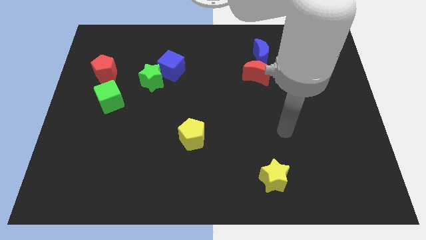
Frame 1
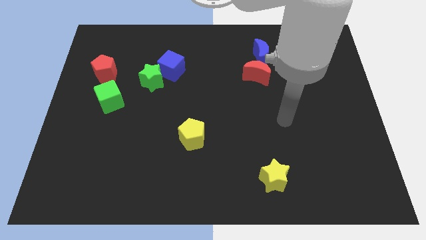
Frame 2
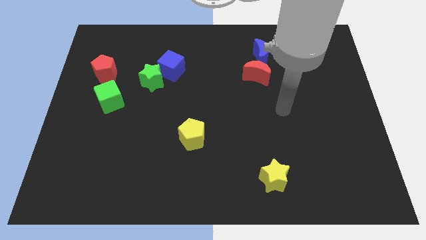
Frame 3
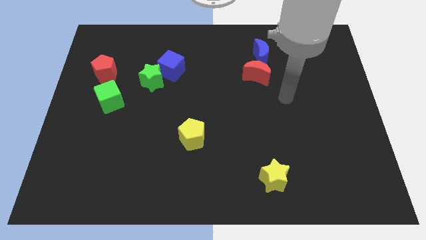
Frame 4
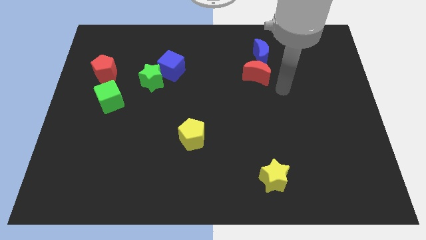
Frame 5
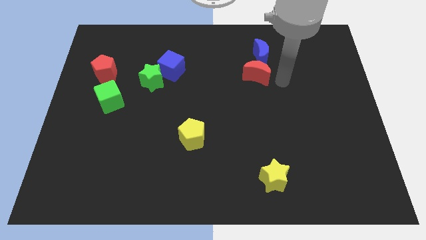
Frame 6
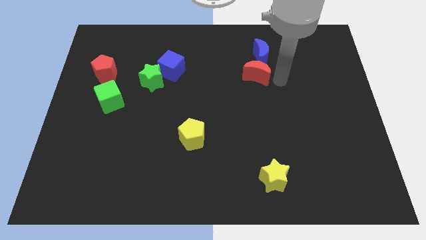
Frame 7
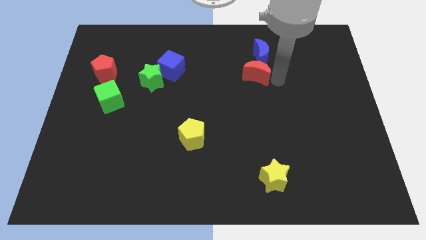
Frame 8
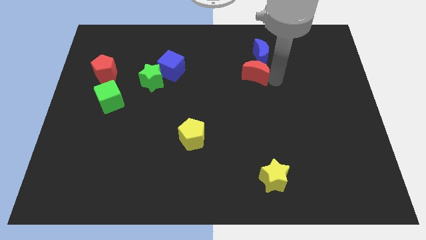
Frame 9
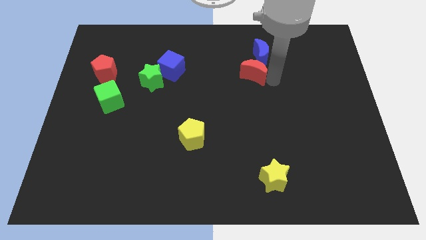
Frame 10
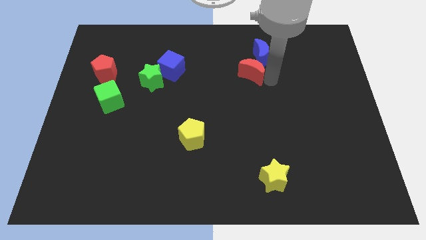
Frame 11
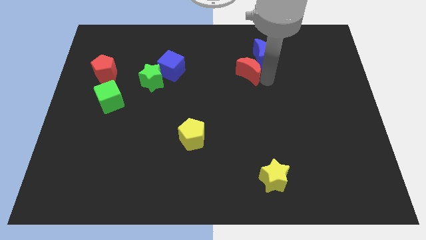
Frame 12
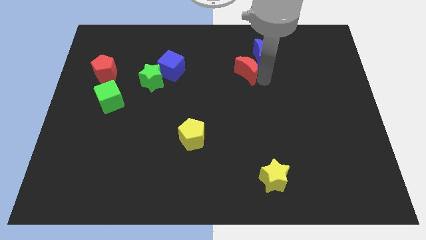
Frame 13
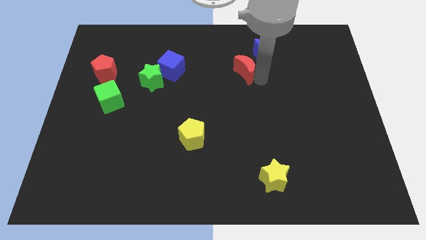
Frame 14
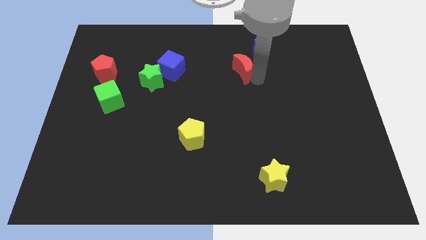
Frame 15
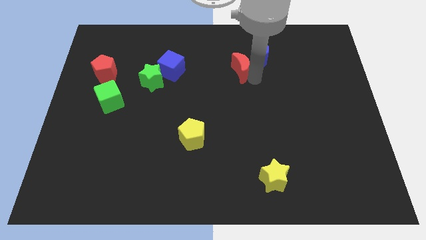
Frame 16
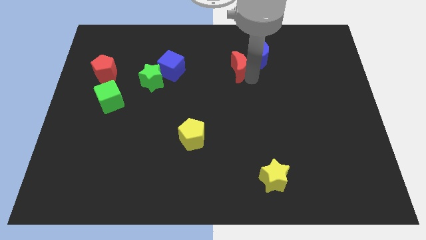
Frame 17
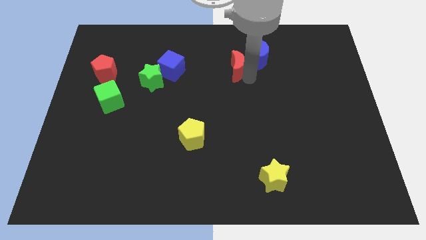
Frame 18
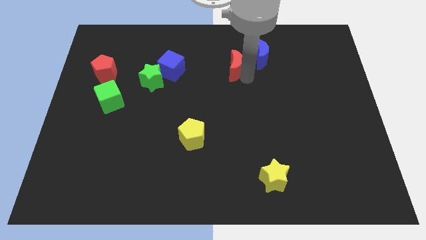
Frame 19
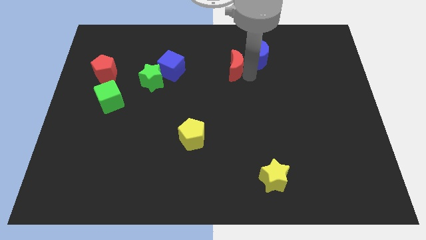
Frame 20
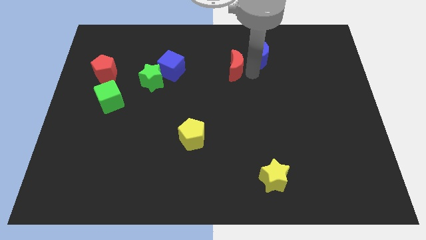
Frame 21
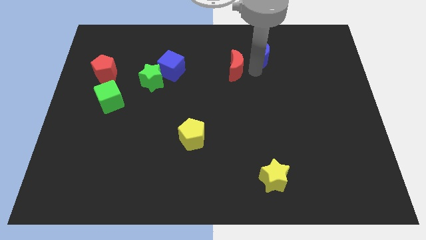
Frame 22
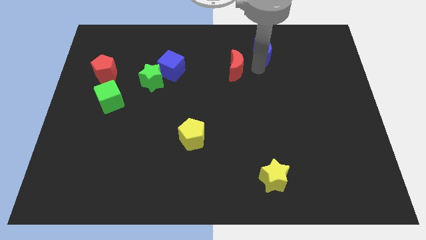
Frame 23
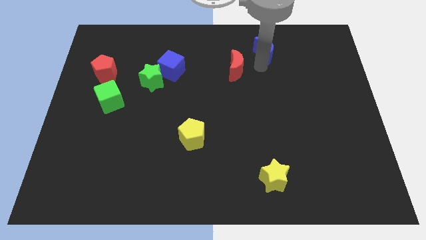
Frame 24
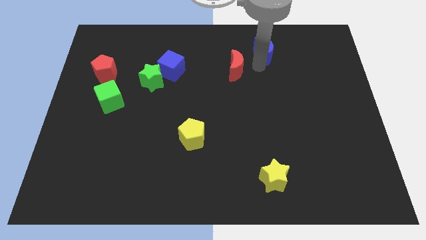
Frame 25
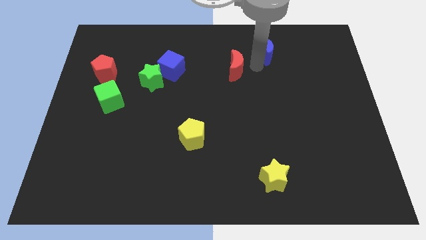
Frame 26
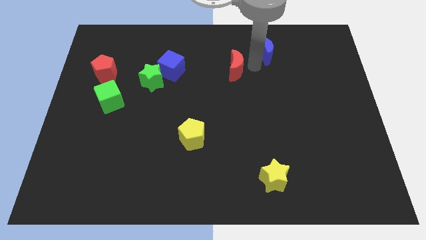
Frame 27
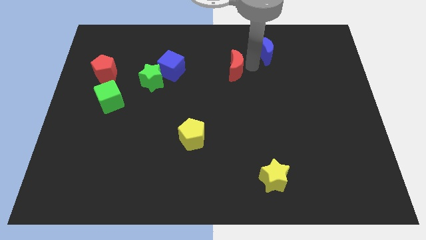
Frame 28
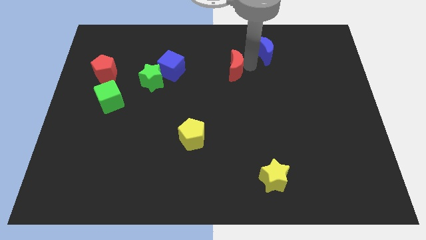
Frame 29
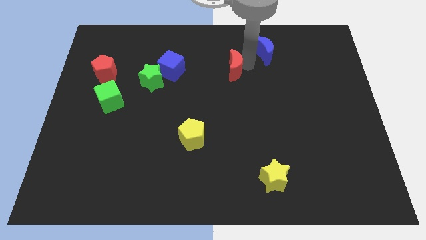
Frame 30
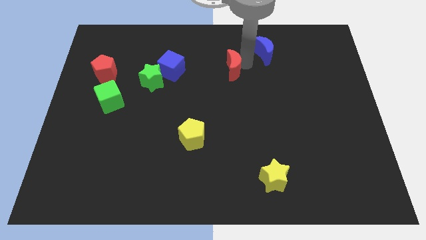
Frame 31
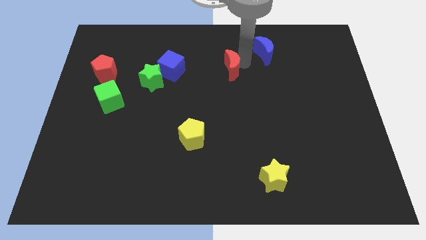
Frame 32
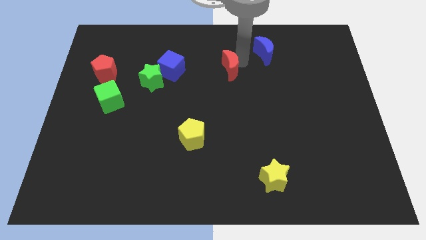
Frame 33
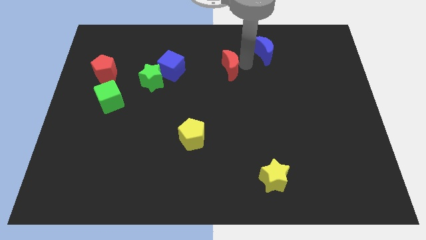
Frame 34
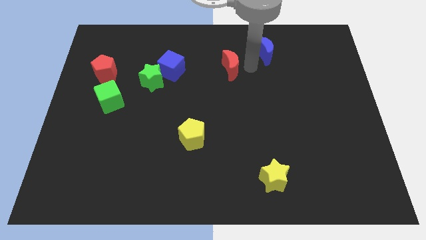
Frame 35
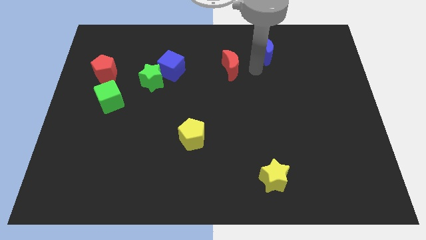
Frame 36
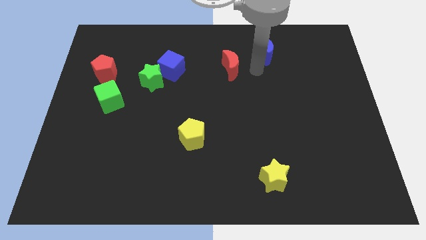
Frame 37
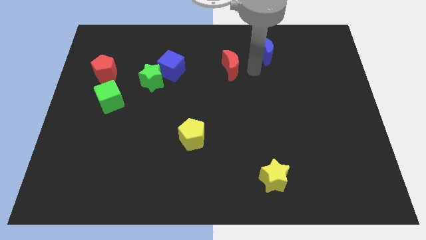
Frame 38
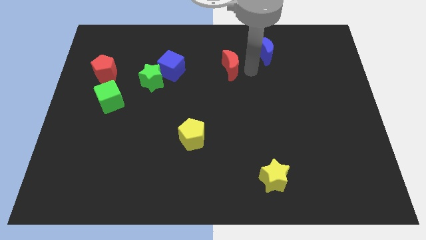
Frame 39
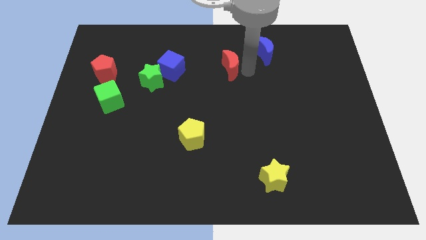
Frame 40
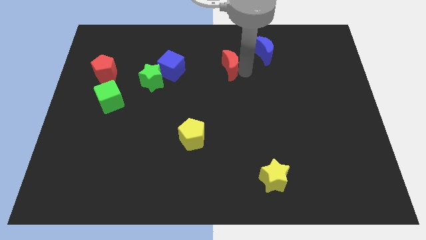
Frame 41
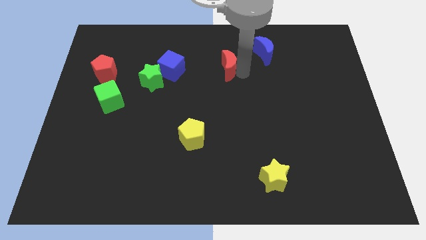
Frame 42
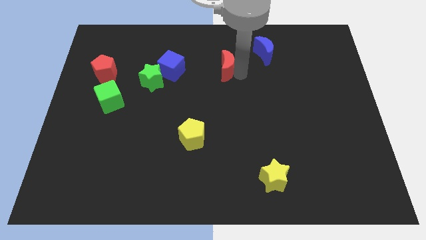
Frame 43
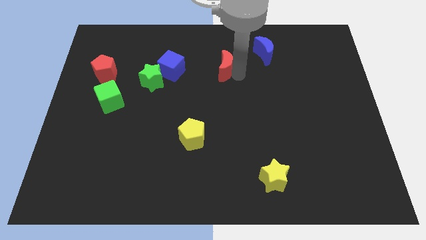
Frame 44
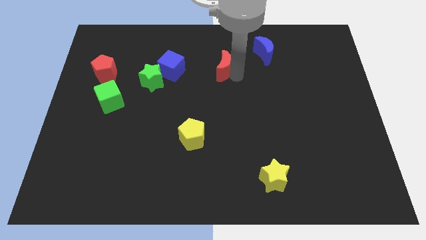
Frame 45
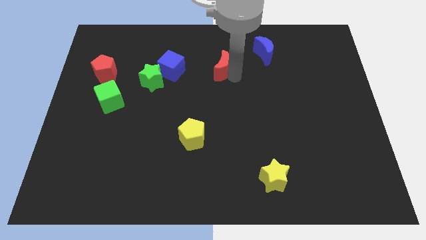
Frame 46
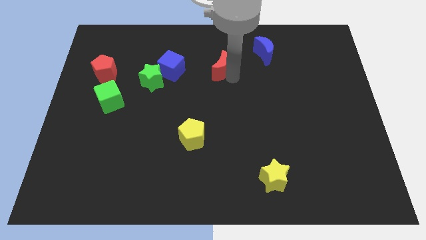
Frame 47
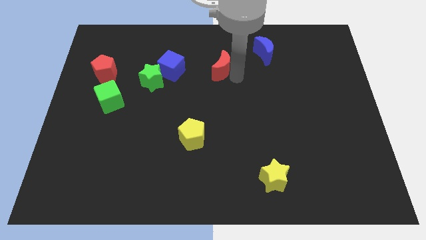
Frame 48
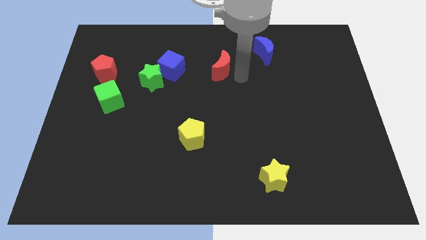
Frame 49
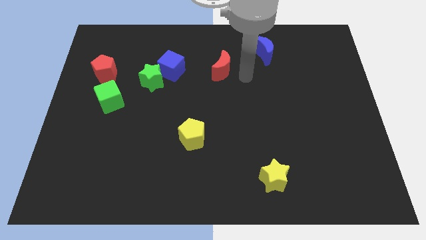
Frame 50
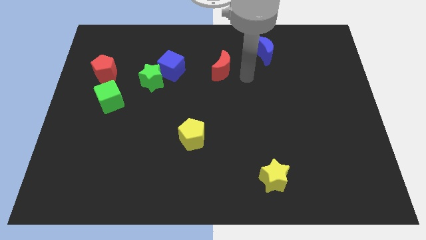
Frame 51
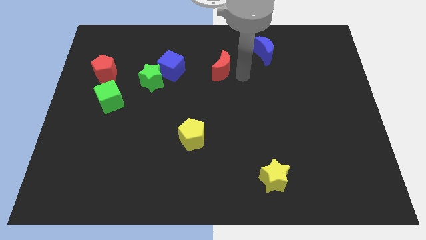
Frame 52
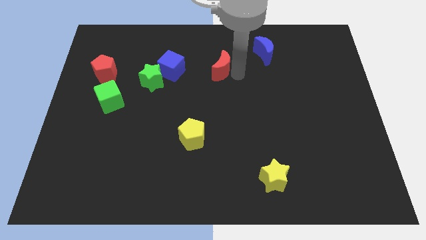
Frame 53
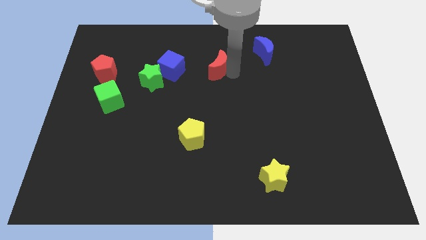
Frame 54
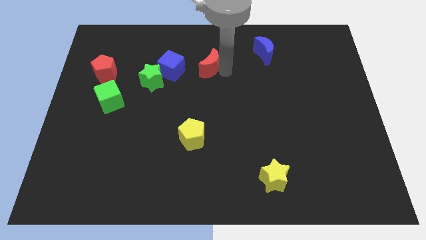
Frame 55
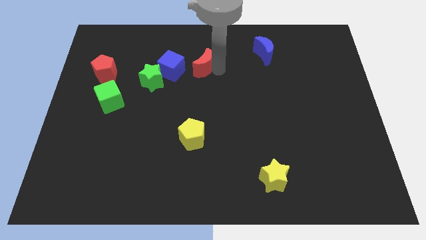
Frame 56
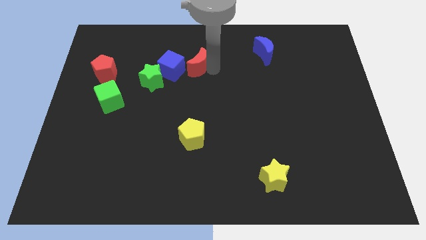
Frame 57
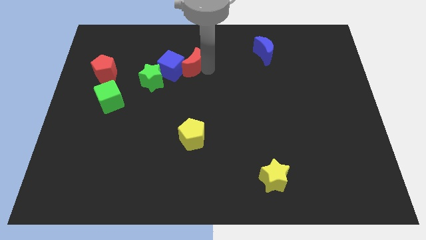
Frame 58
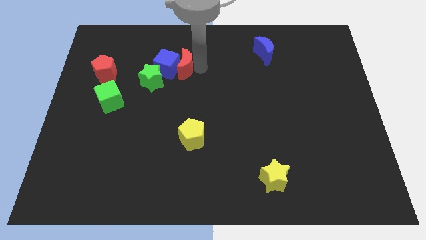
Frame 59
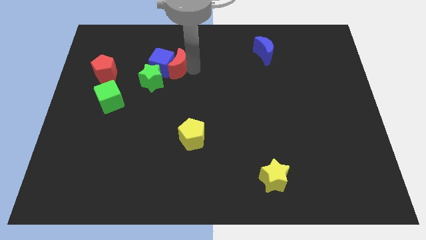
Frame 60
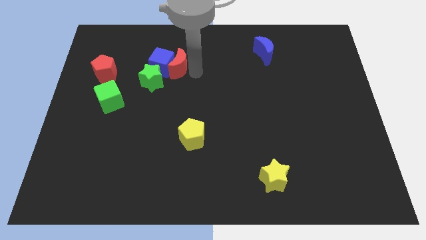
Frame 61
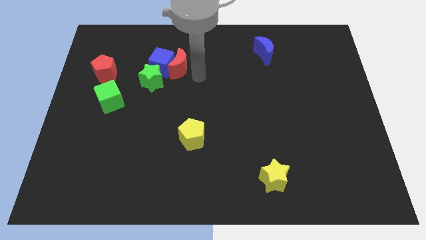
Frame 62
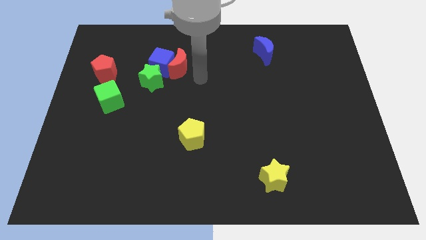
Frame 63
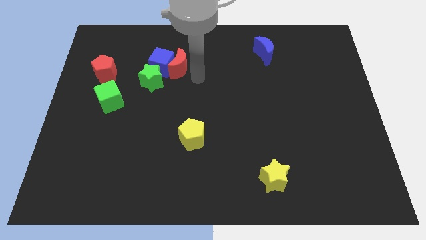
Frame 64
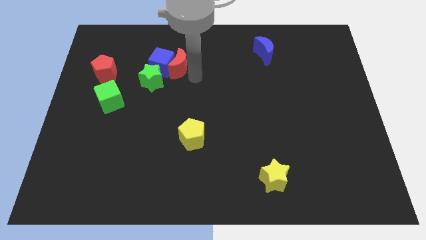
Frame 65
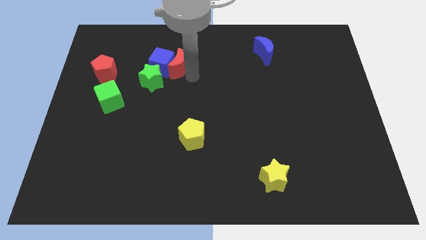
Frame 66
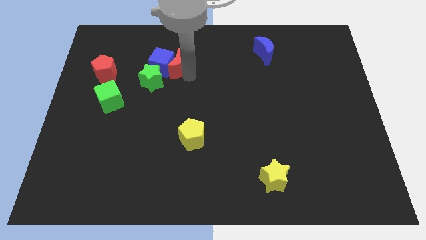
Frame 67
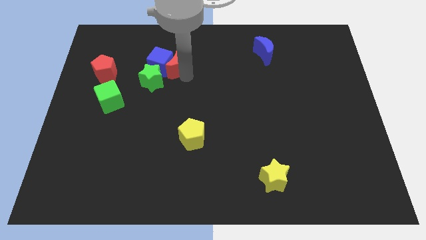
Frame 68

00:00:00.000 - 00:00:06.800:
move the red moon to the left

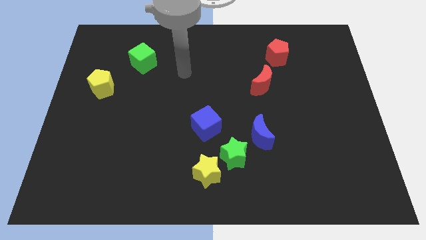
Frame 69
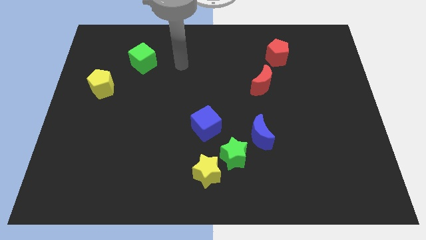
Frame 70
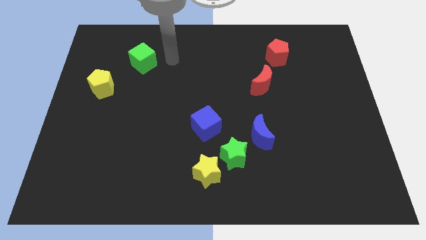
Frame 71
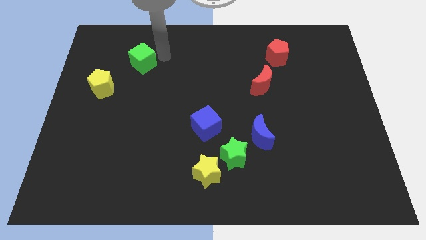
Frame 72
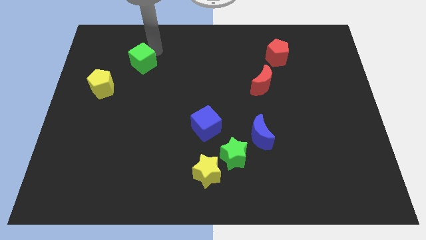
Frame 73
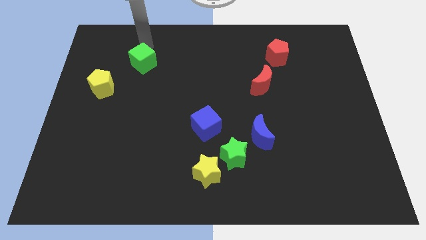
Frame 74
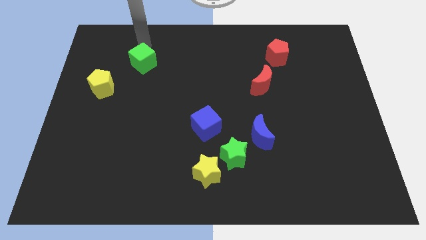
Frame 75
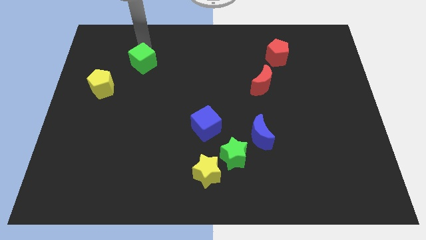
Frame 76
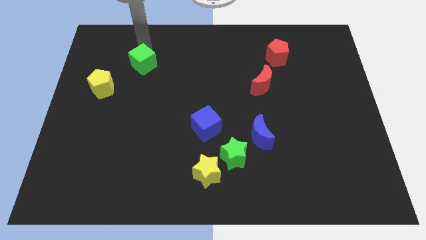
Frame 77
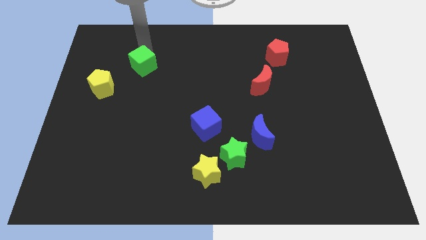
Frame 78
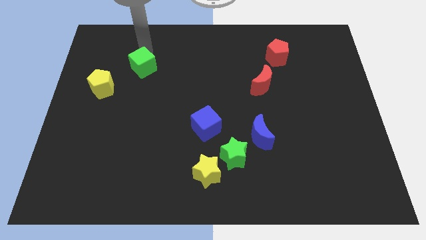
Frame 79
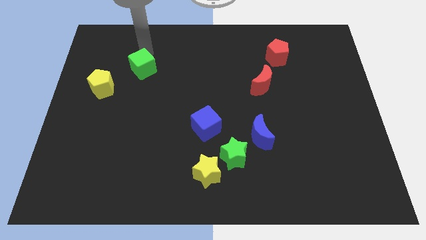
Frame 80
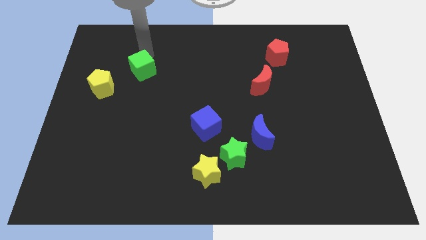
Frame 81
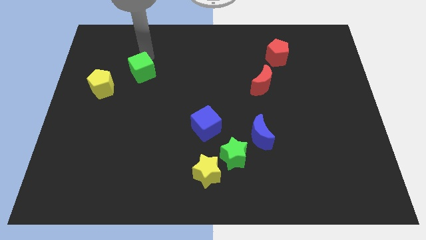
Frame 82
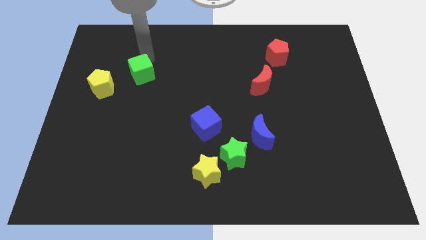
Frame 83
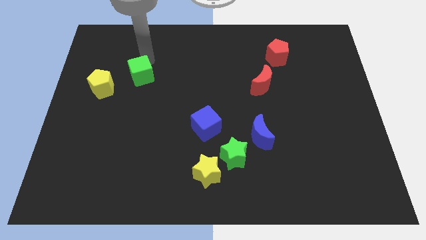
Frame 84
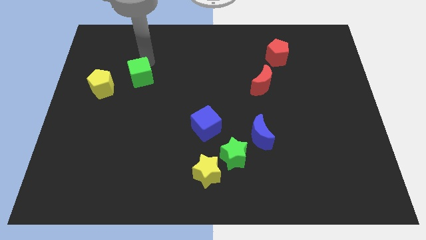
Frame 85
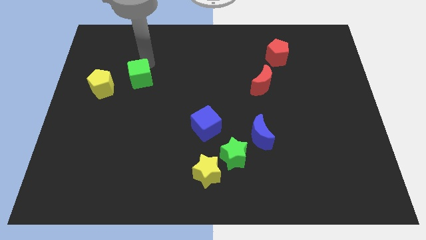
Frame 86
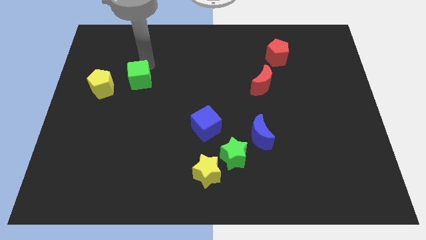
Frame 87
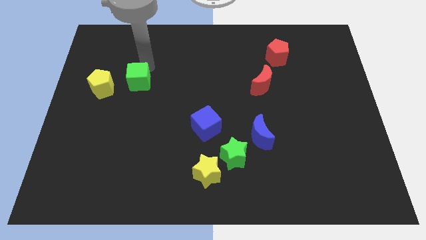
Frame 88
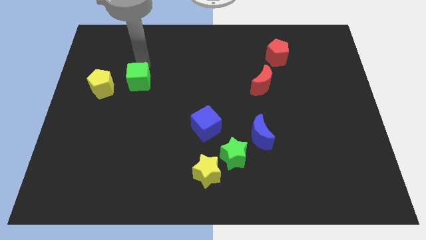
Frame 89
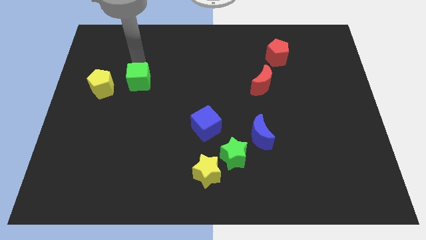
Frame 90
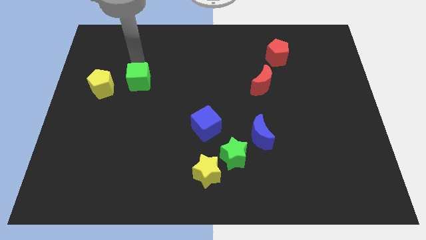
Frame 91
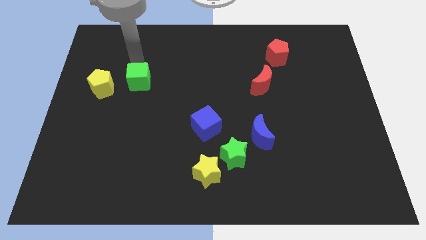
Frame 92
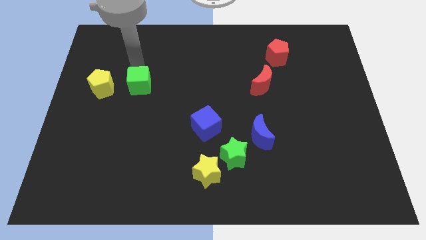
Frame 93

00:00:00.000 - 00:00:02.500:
slide the green cube downwards a little bit
